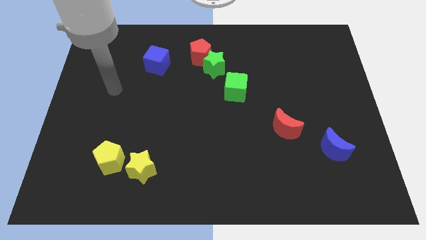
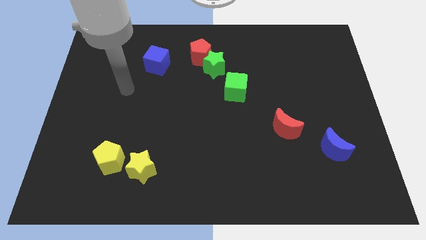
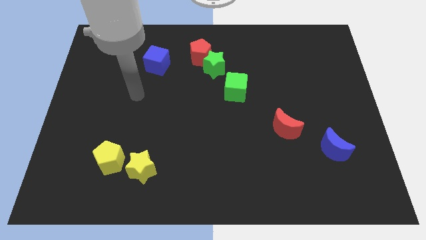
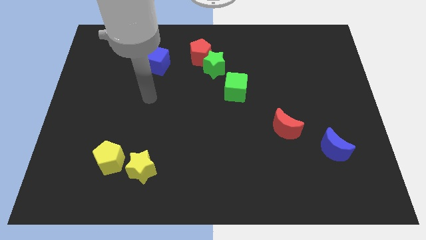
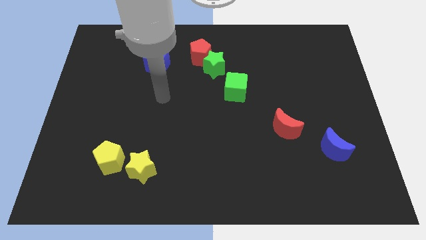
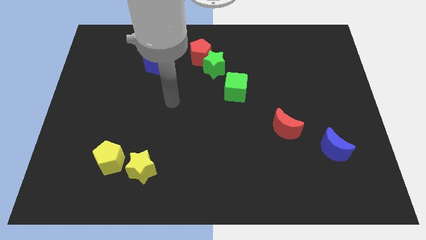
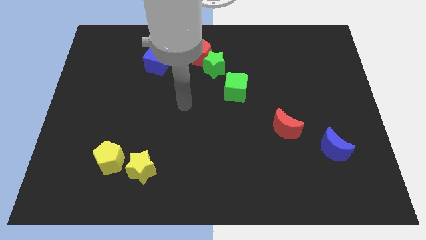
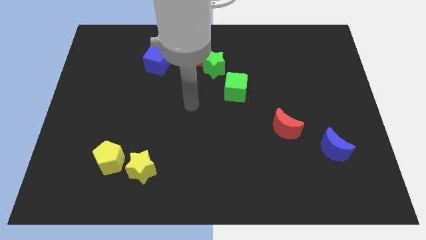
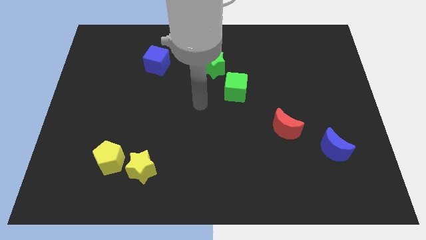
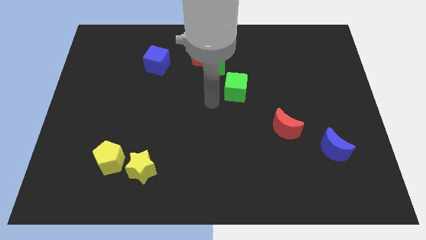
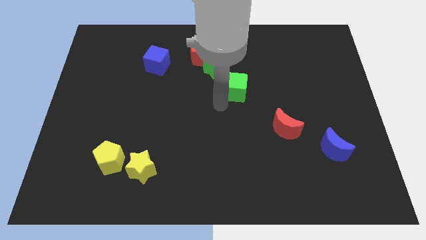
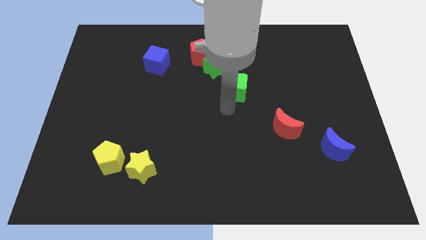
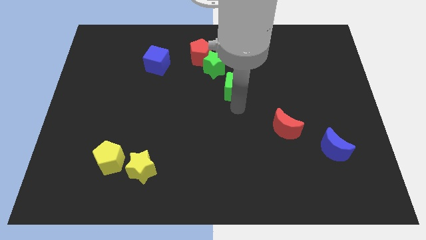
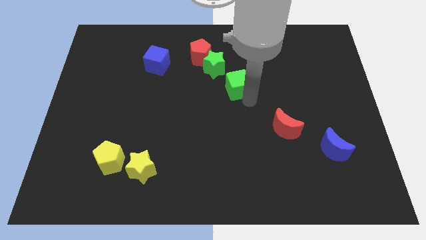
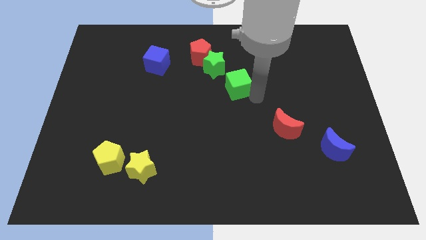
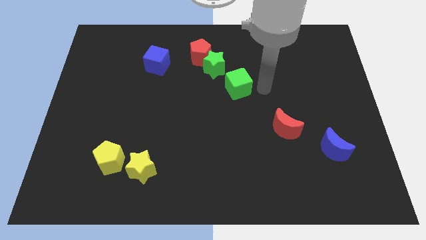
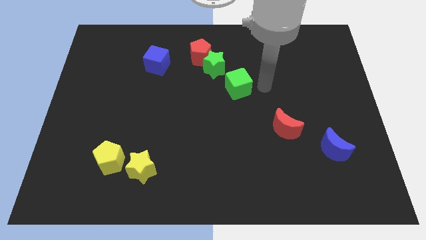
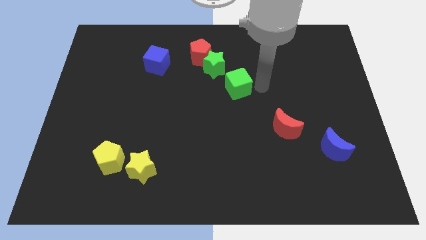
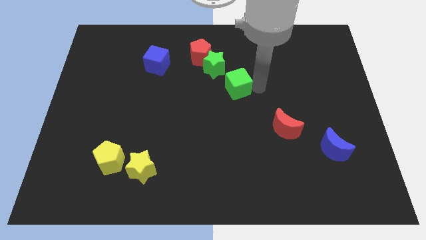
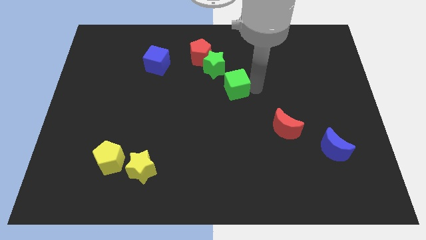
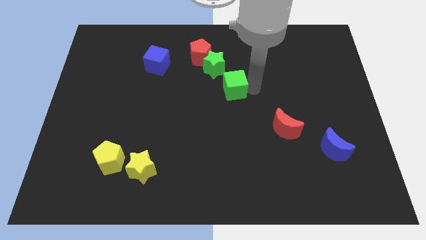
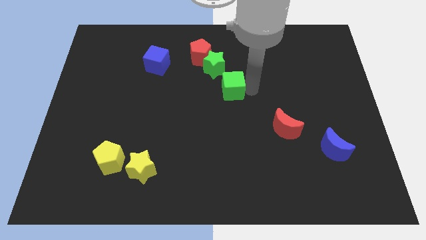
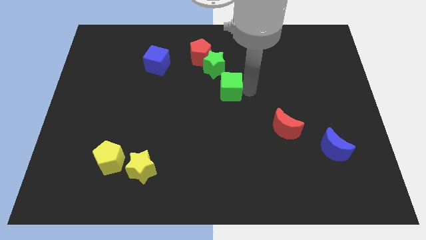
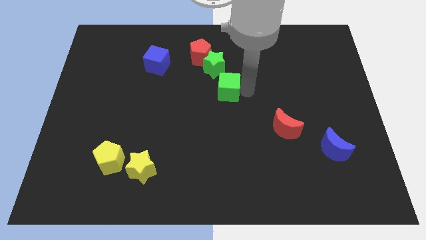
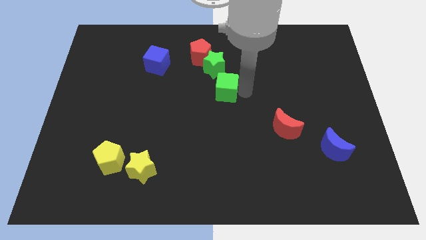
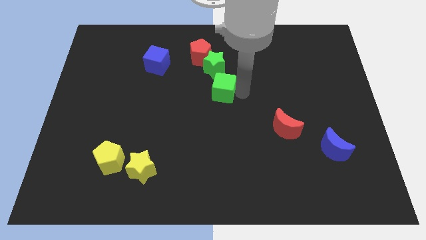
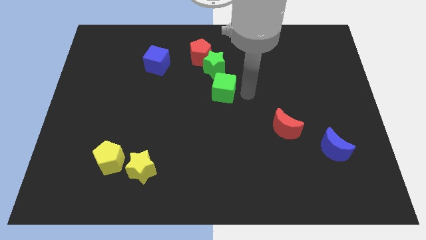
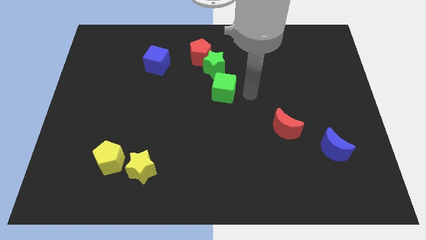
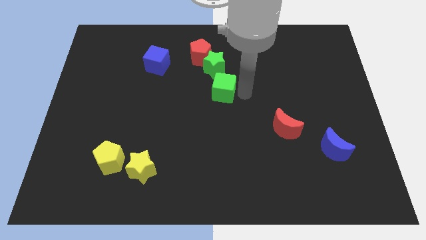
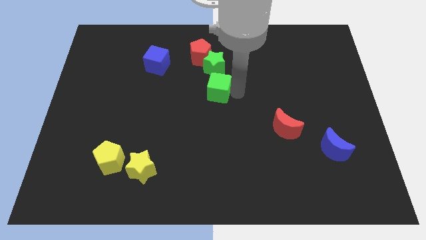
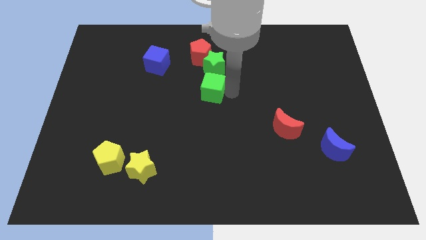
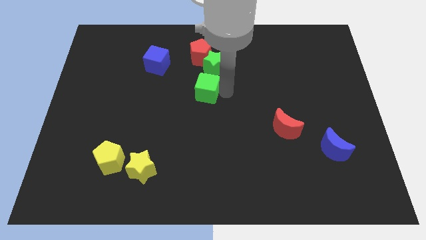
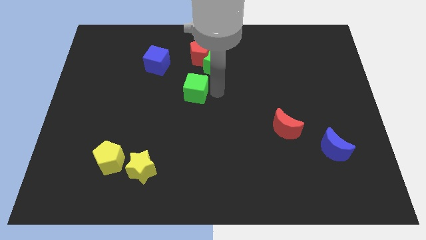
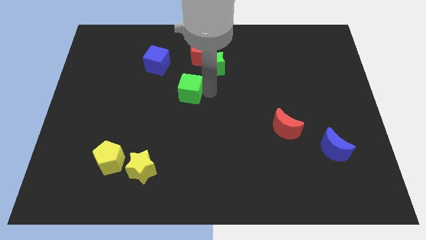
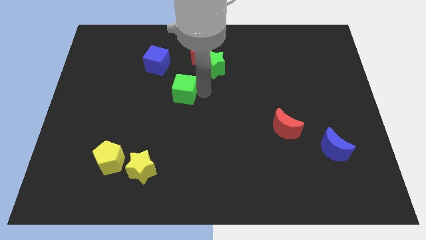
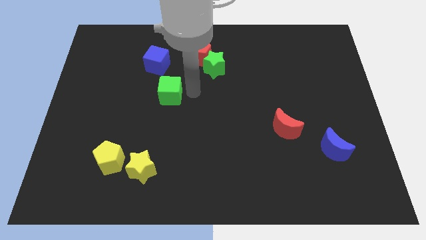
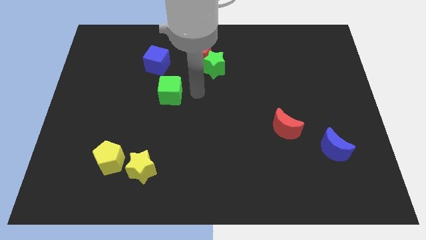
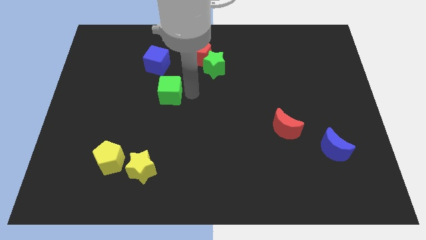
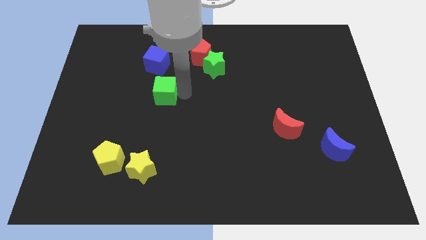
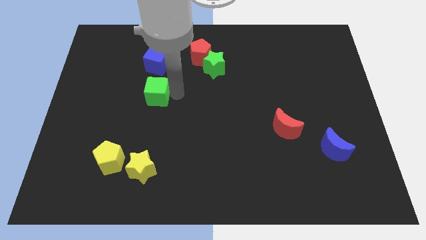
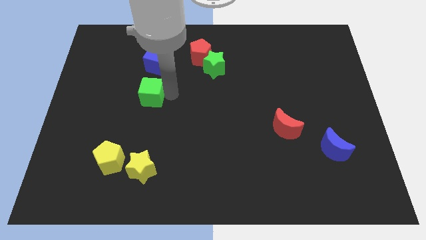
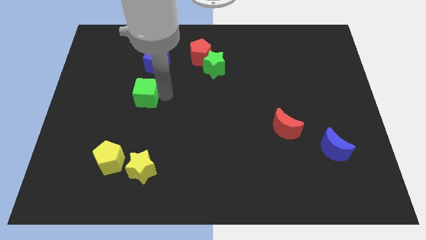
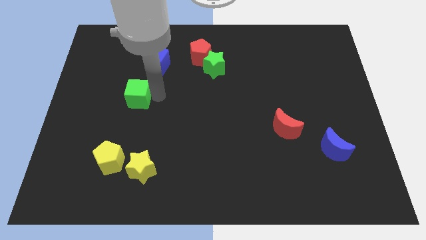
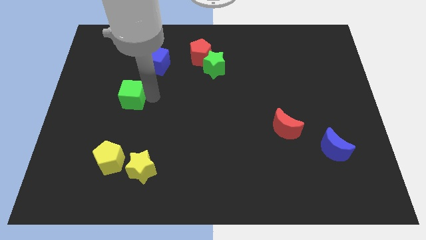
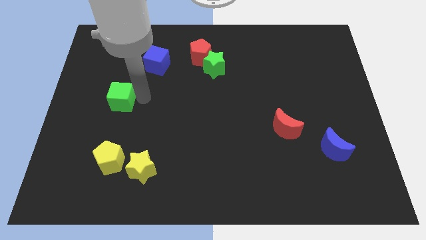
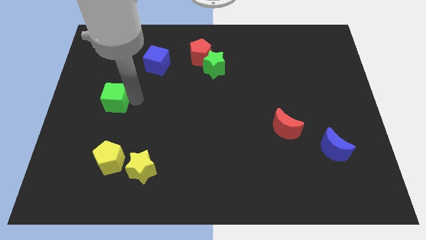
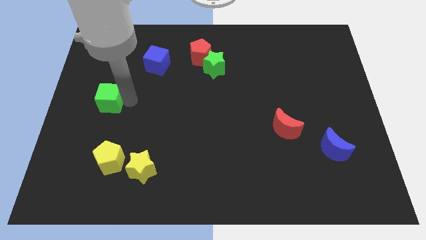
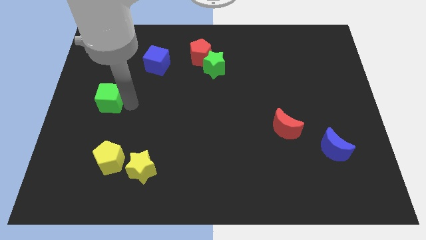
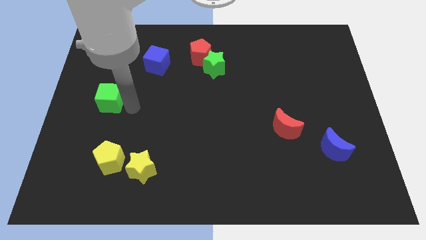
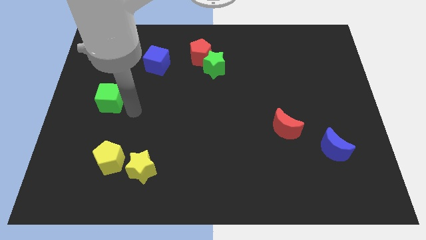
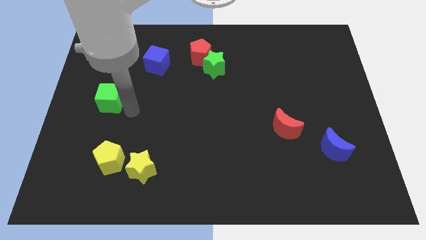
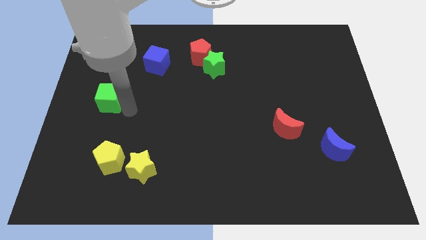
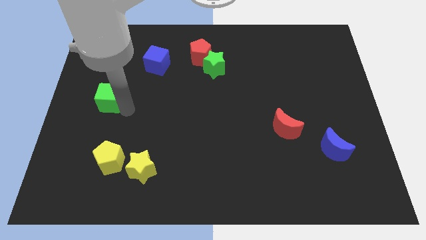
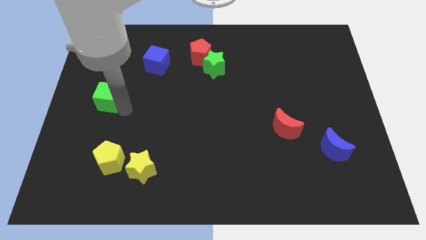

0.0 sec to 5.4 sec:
slide the green cube to the left side of the board

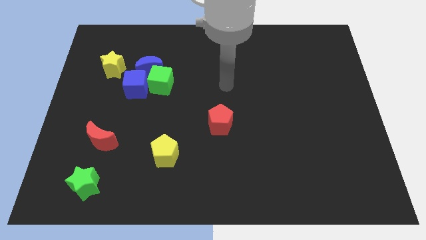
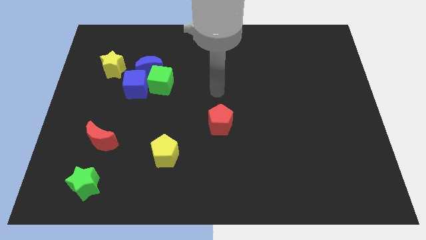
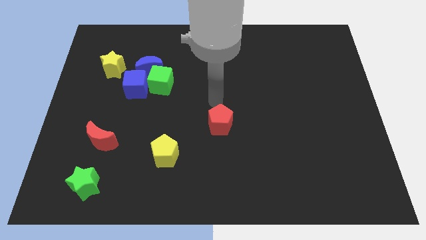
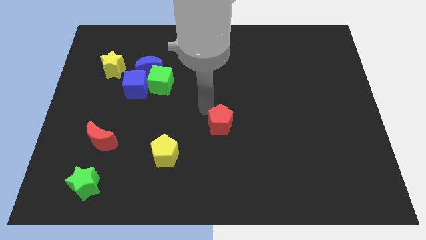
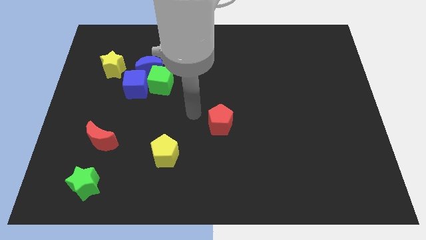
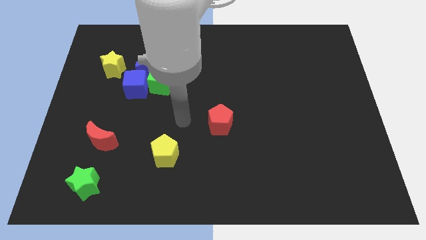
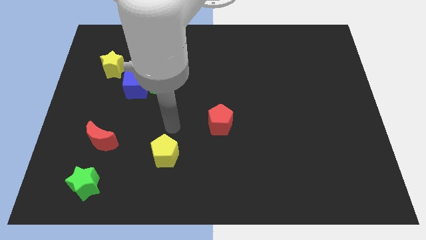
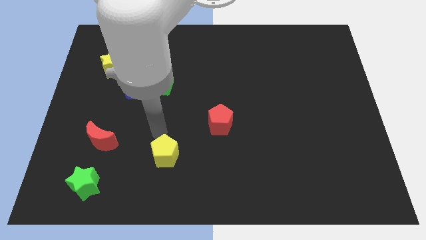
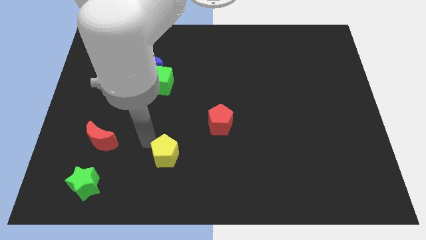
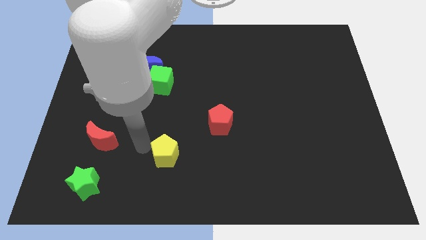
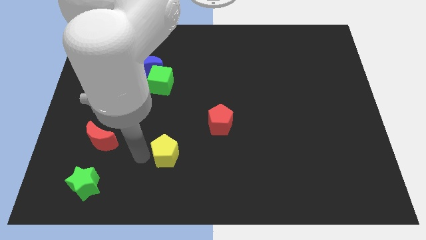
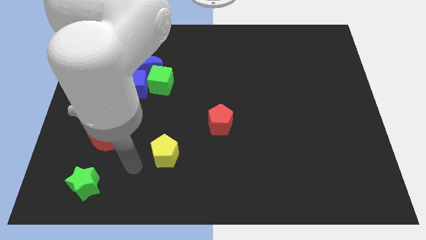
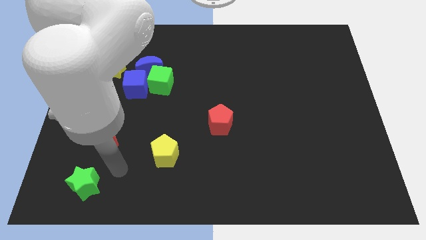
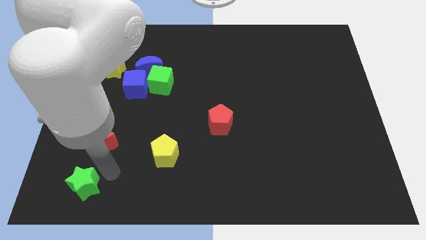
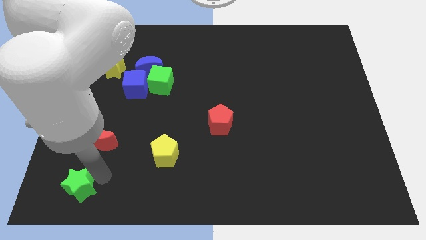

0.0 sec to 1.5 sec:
put the green star to the bottom left corner

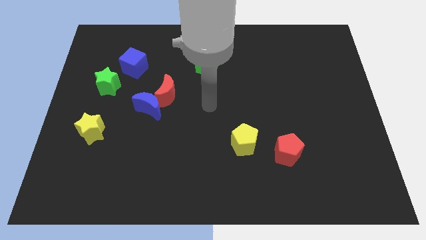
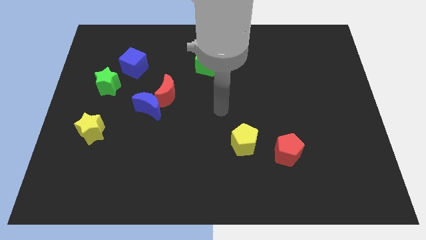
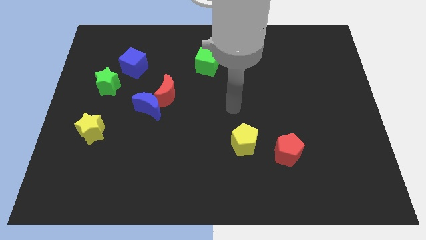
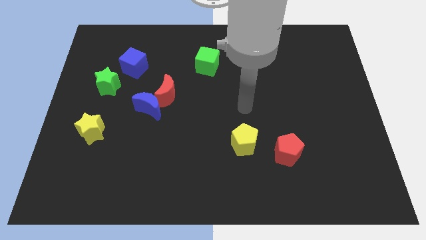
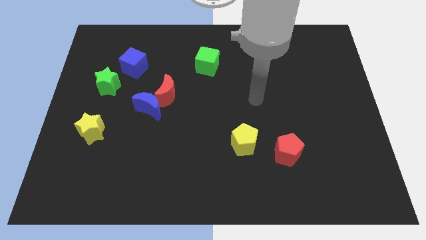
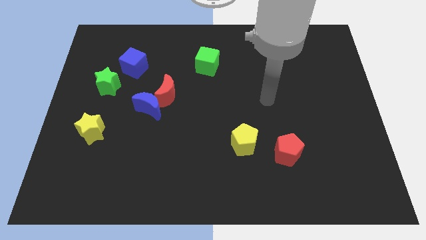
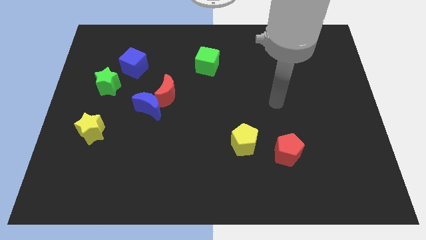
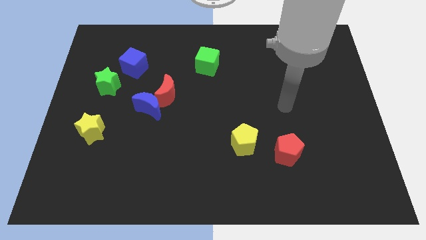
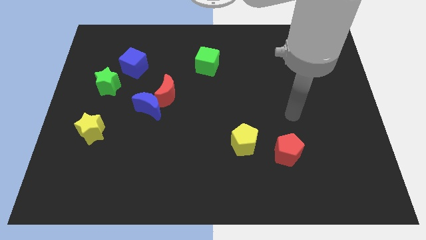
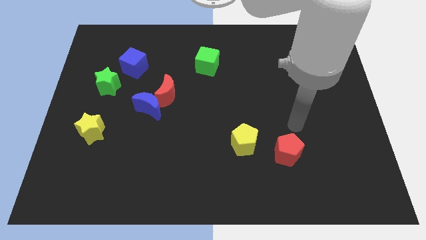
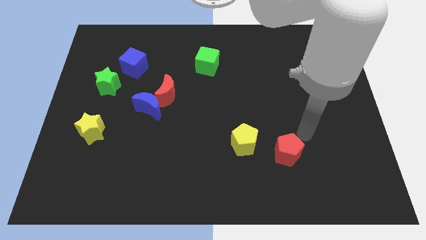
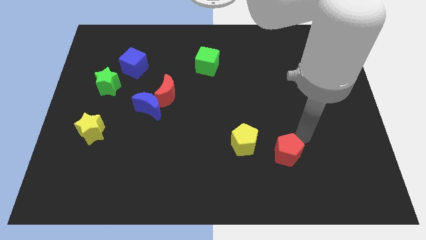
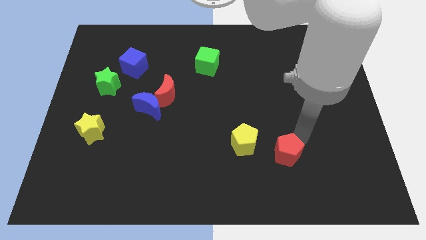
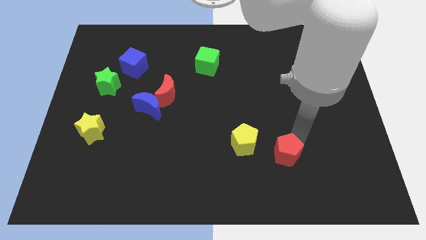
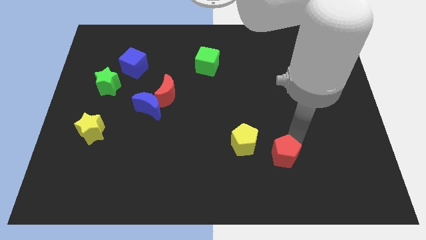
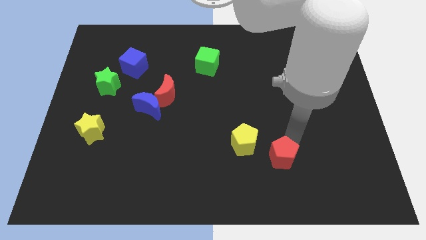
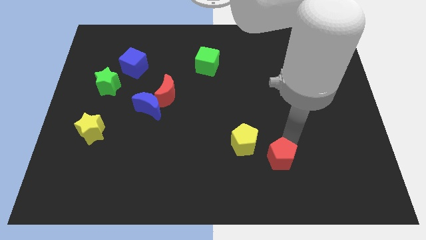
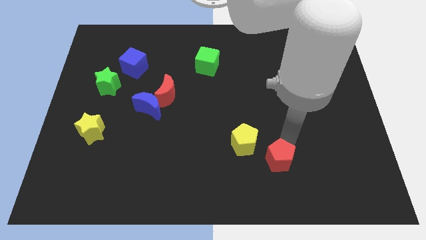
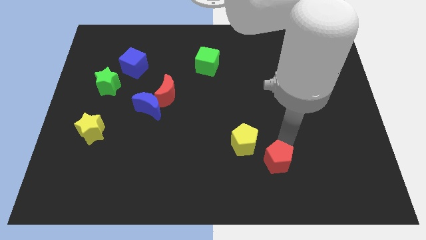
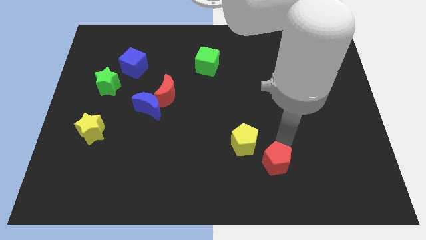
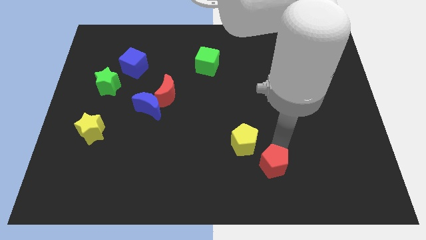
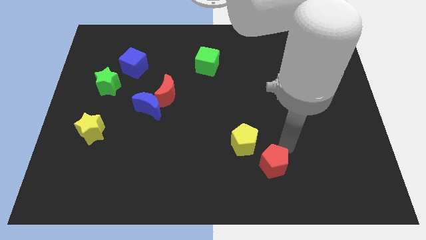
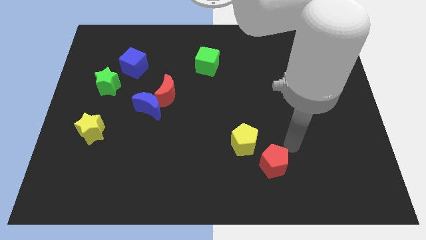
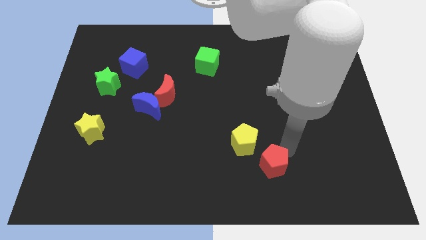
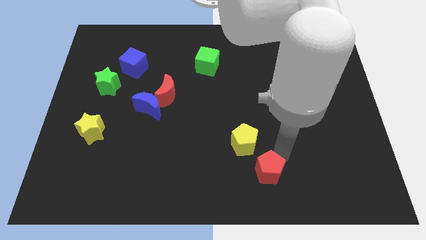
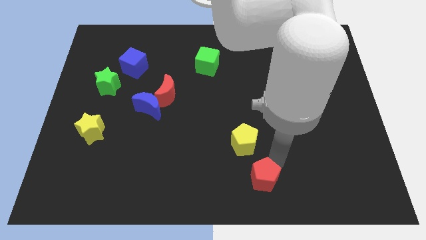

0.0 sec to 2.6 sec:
push the red pentagon to the bottom
